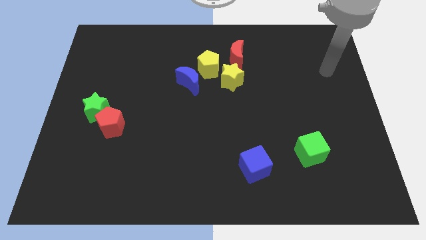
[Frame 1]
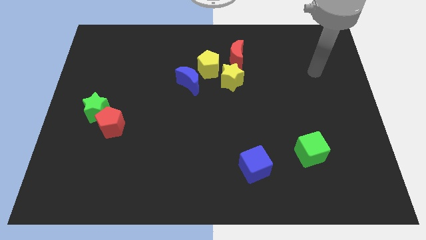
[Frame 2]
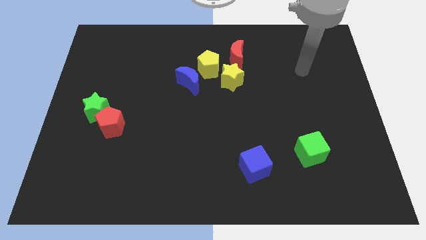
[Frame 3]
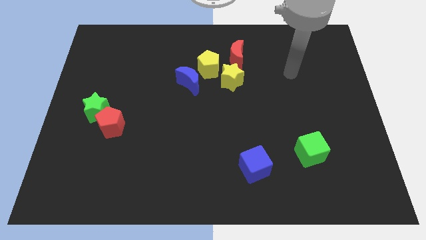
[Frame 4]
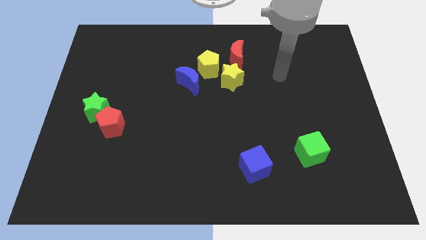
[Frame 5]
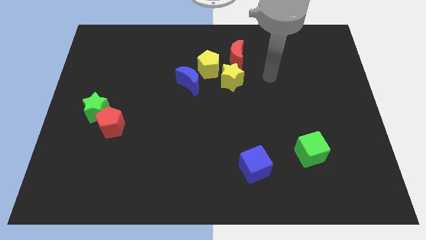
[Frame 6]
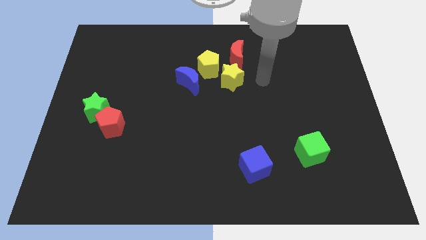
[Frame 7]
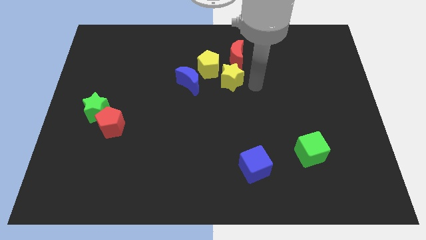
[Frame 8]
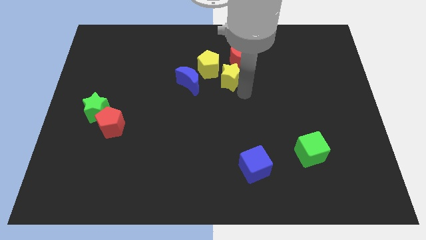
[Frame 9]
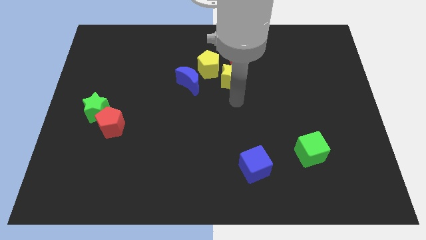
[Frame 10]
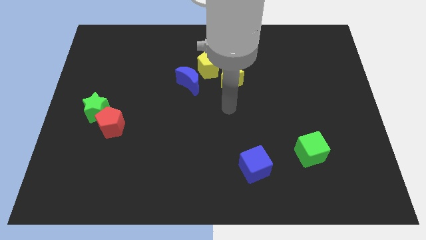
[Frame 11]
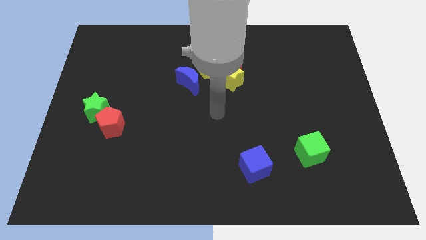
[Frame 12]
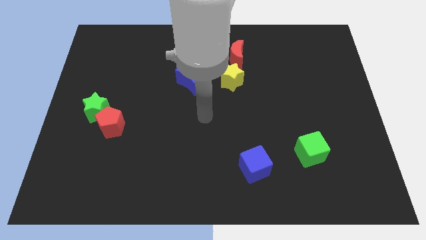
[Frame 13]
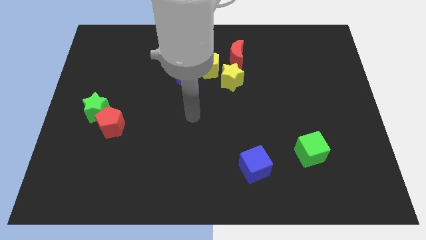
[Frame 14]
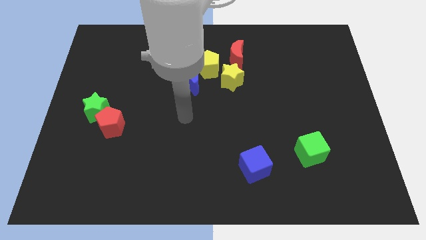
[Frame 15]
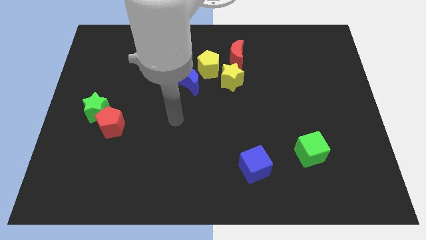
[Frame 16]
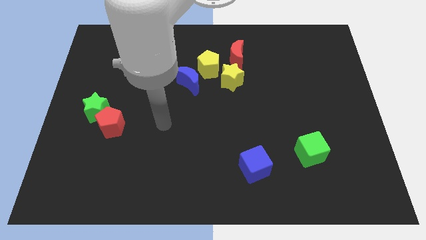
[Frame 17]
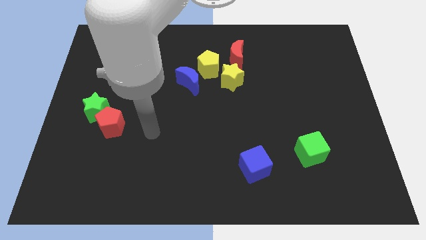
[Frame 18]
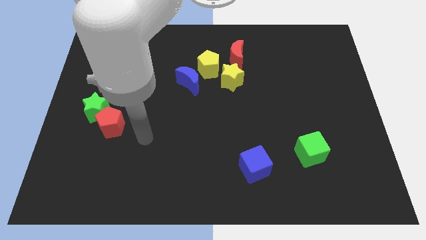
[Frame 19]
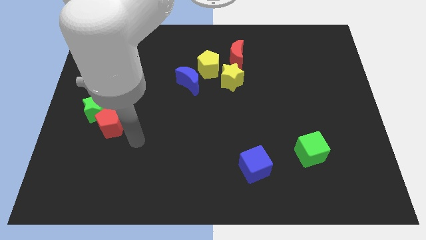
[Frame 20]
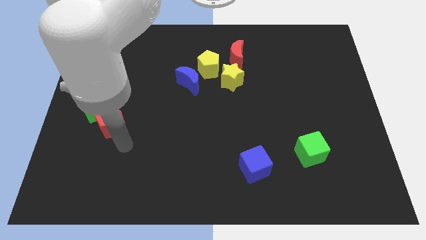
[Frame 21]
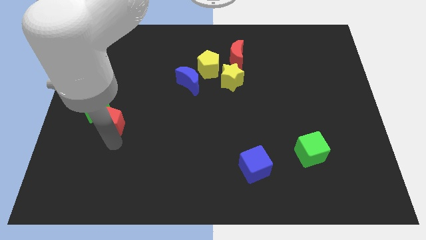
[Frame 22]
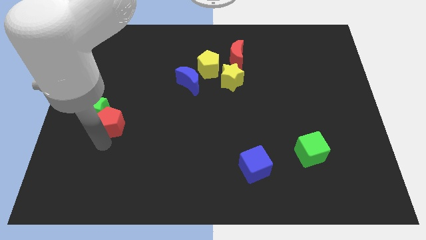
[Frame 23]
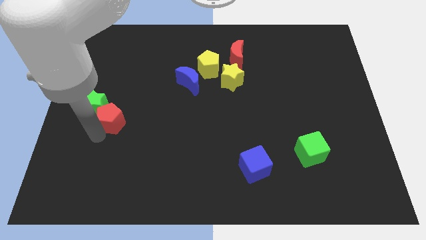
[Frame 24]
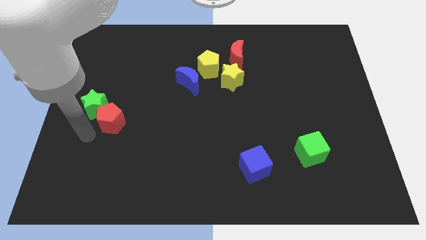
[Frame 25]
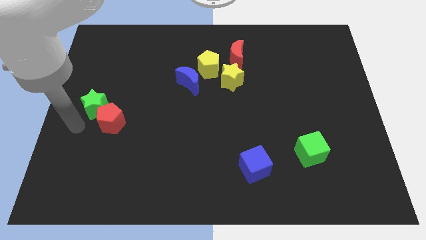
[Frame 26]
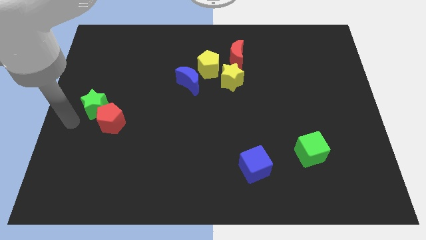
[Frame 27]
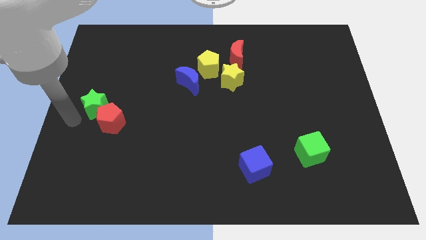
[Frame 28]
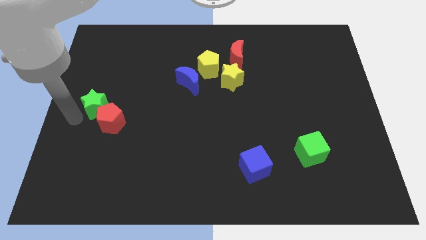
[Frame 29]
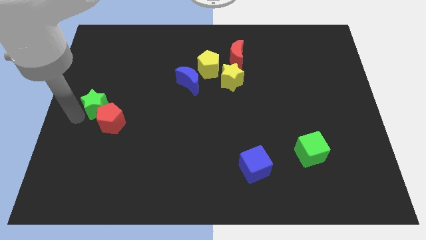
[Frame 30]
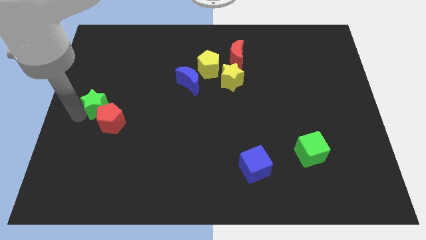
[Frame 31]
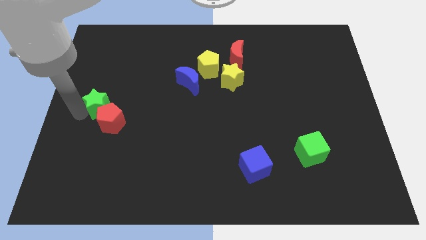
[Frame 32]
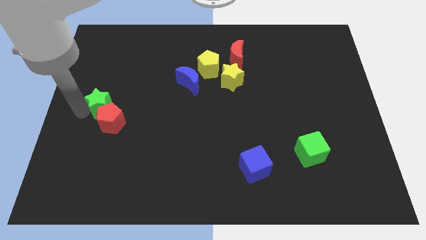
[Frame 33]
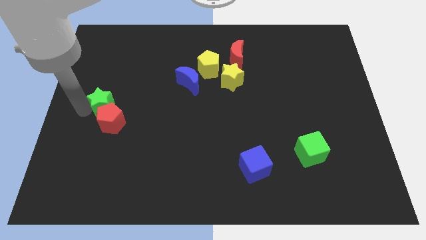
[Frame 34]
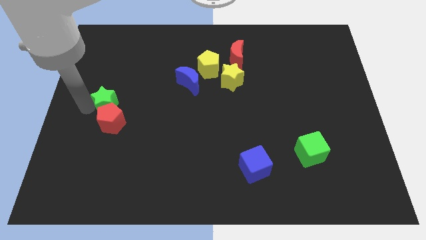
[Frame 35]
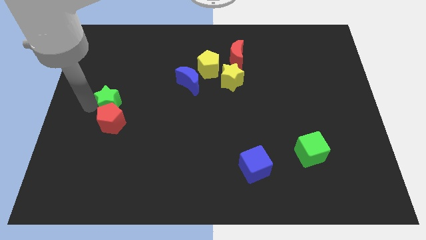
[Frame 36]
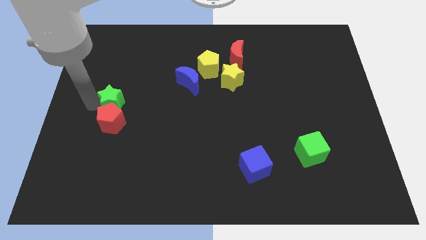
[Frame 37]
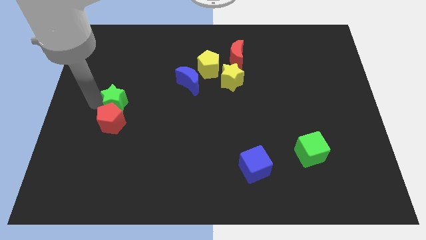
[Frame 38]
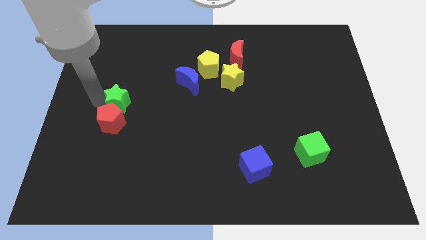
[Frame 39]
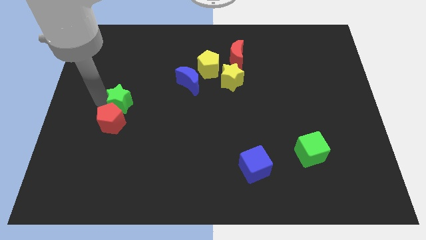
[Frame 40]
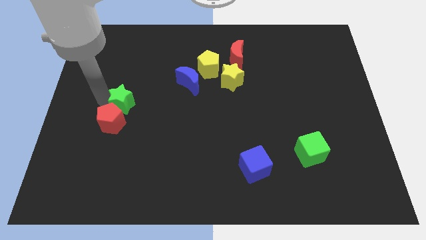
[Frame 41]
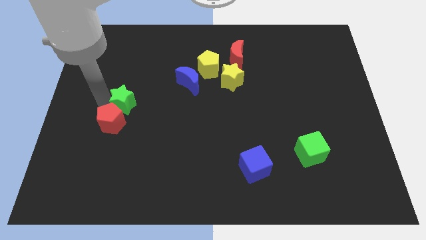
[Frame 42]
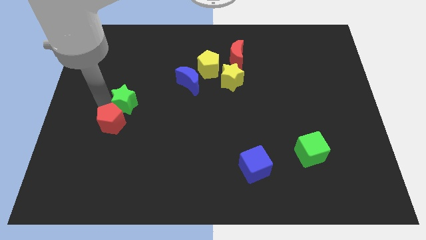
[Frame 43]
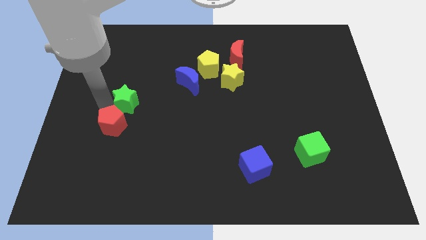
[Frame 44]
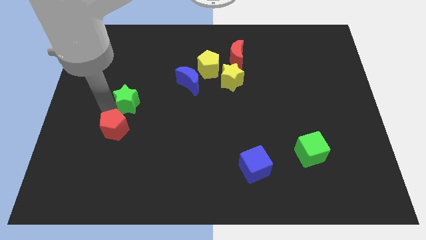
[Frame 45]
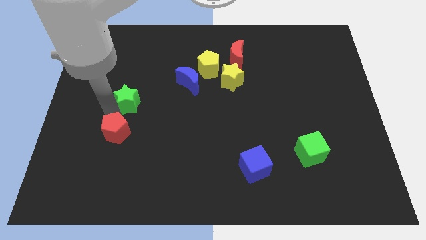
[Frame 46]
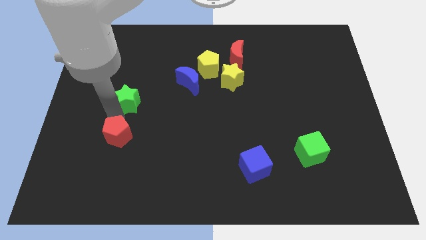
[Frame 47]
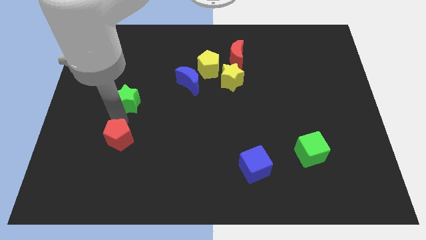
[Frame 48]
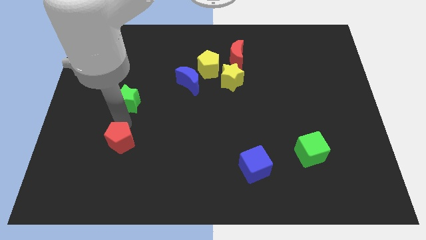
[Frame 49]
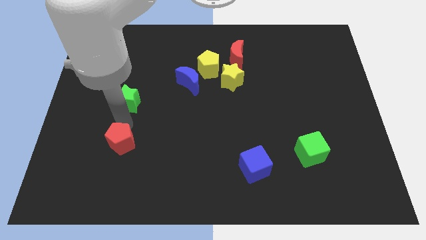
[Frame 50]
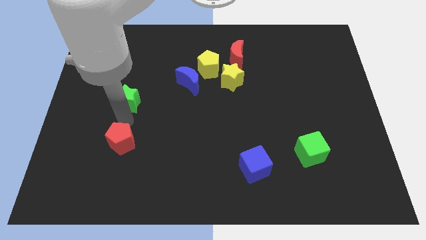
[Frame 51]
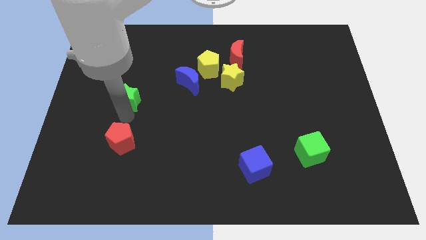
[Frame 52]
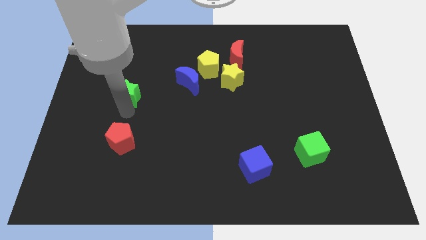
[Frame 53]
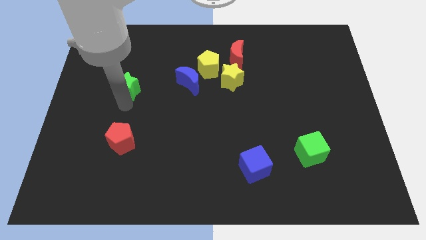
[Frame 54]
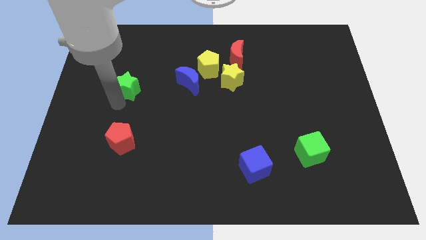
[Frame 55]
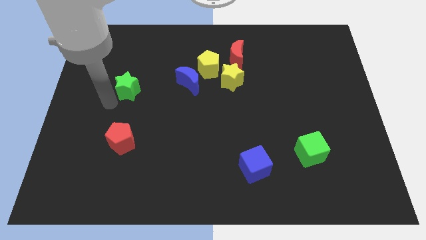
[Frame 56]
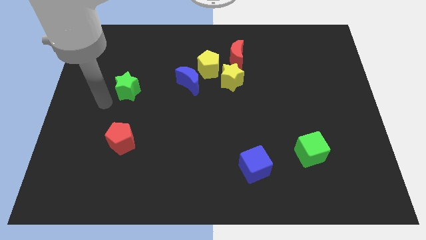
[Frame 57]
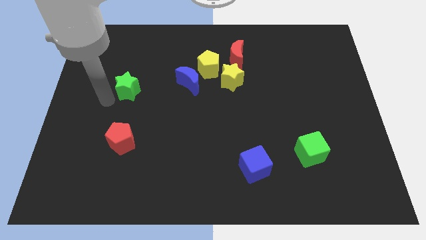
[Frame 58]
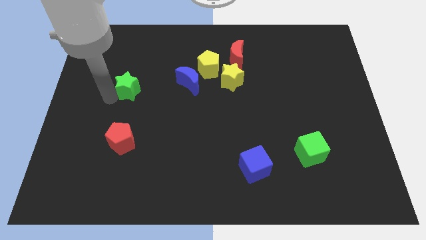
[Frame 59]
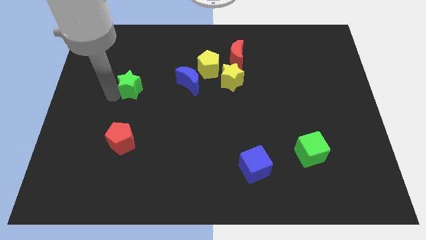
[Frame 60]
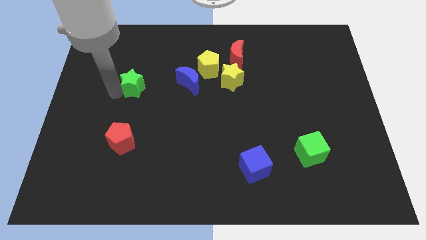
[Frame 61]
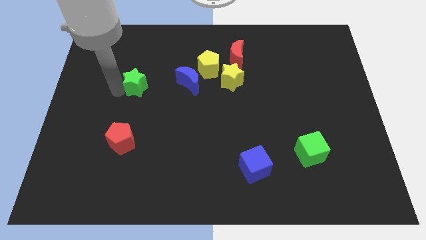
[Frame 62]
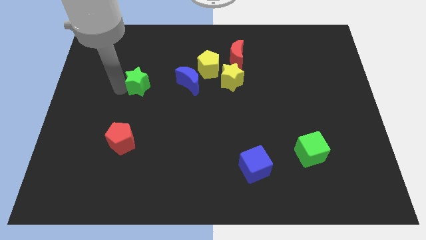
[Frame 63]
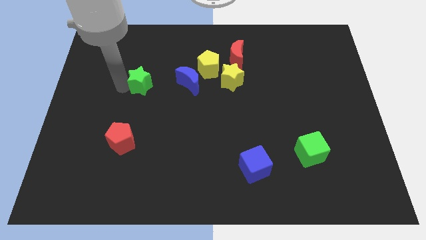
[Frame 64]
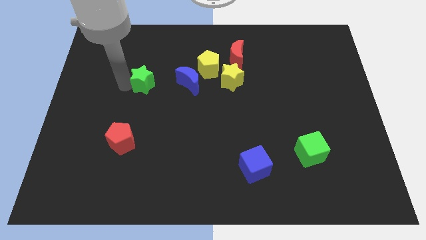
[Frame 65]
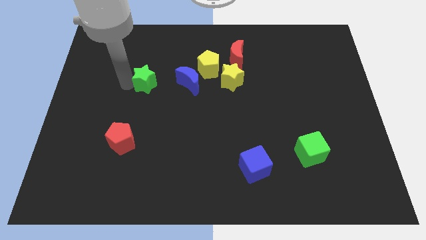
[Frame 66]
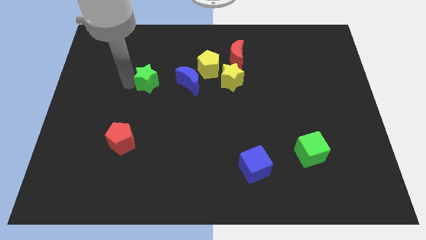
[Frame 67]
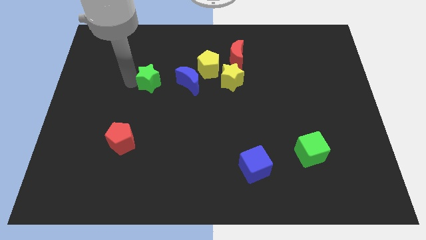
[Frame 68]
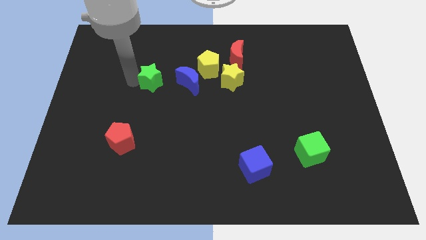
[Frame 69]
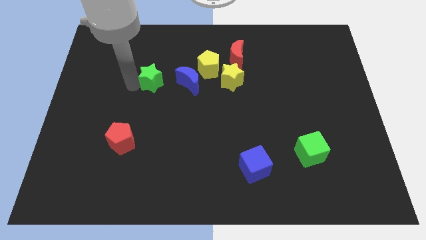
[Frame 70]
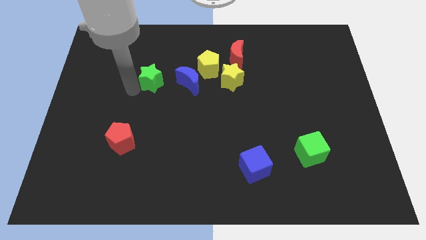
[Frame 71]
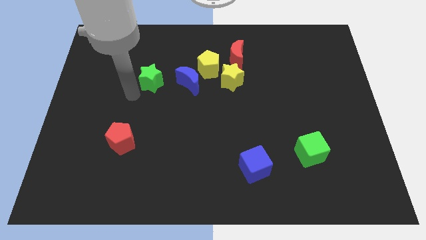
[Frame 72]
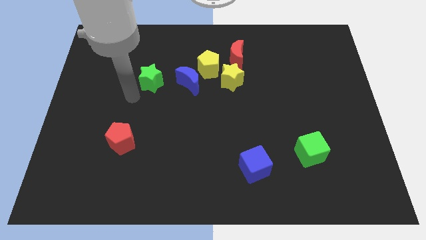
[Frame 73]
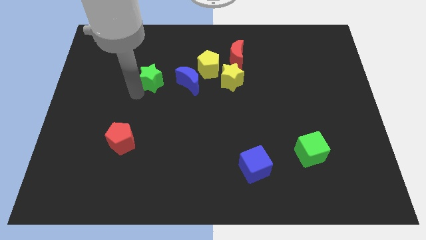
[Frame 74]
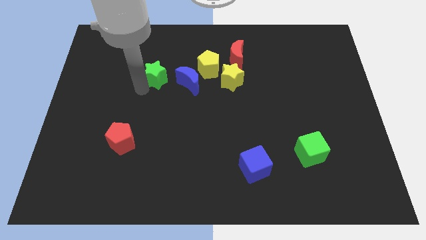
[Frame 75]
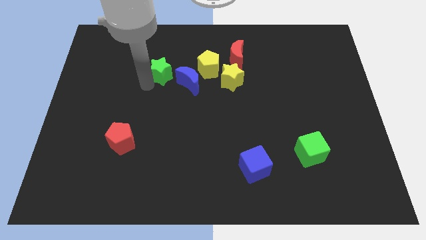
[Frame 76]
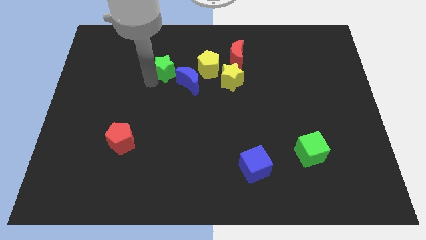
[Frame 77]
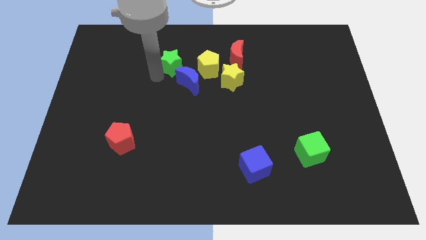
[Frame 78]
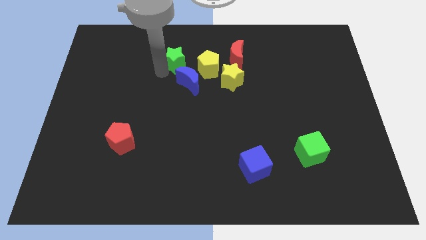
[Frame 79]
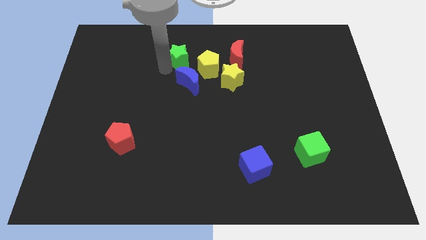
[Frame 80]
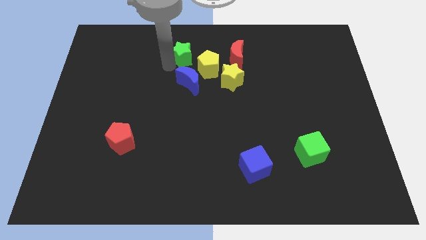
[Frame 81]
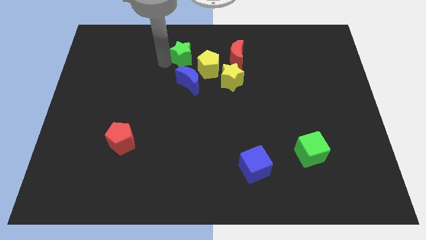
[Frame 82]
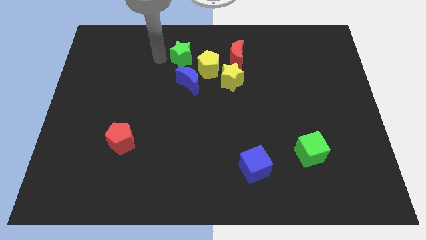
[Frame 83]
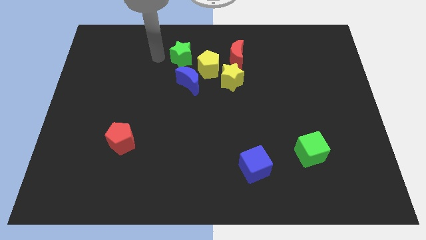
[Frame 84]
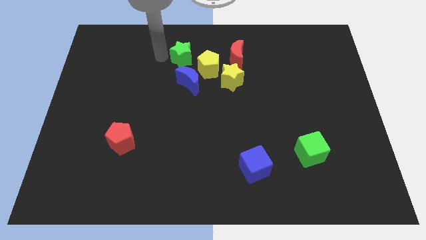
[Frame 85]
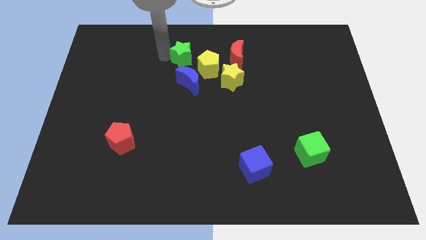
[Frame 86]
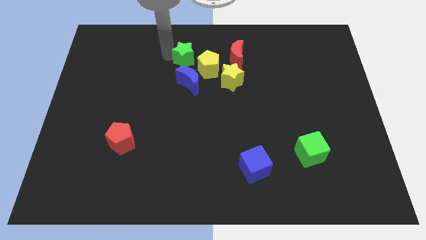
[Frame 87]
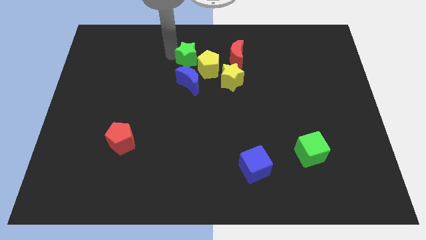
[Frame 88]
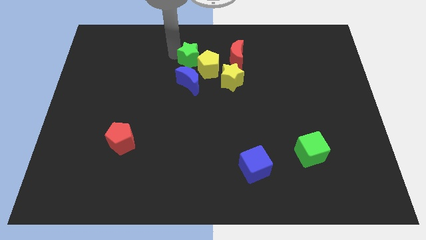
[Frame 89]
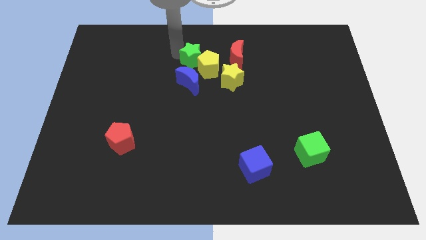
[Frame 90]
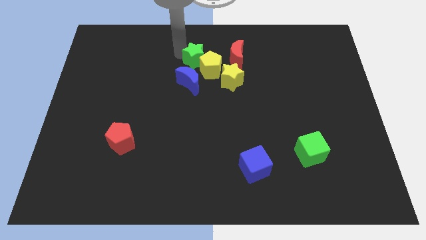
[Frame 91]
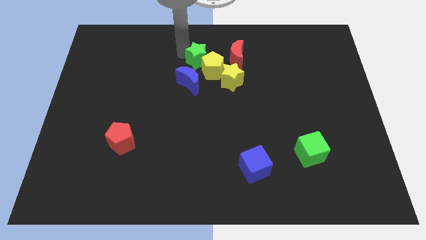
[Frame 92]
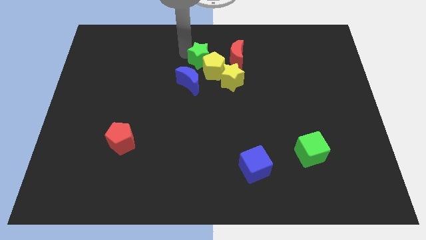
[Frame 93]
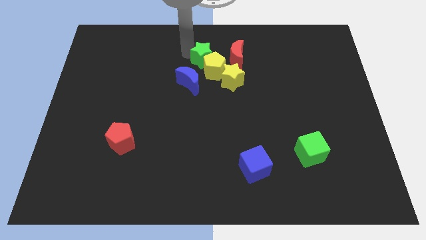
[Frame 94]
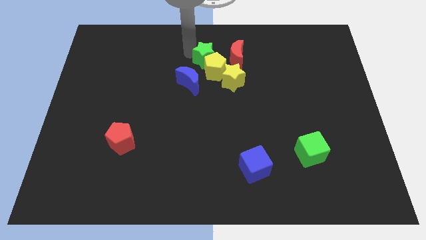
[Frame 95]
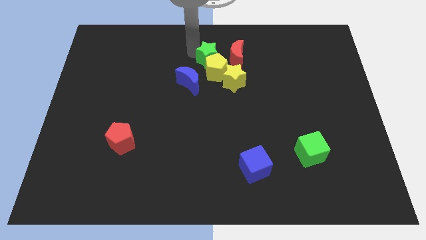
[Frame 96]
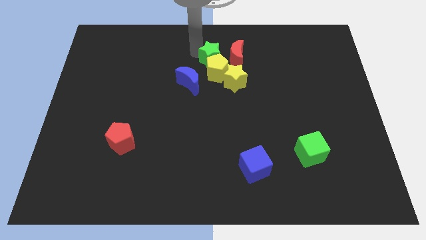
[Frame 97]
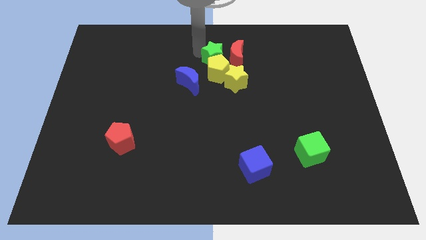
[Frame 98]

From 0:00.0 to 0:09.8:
move the green star to the red moon
